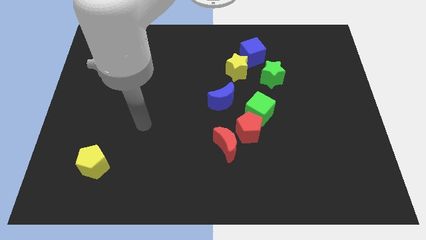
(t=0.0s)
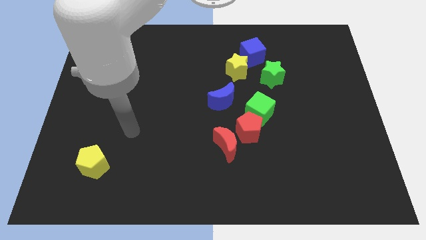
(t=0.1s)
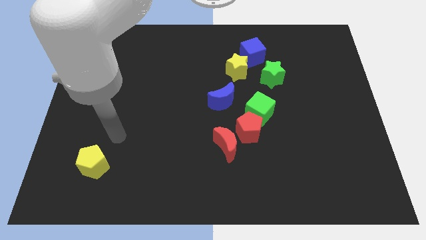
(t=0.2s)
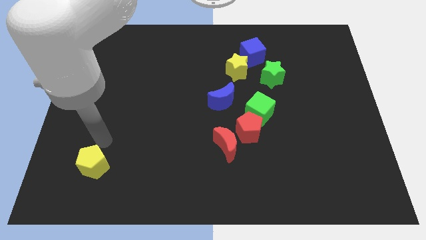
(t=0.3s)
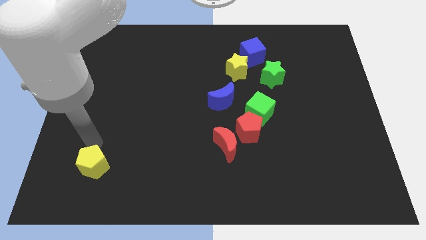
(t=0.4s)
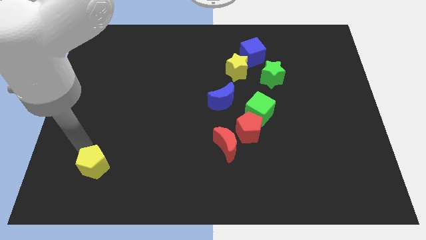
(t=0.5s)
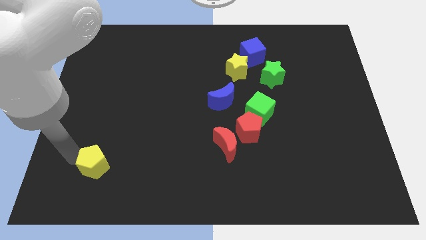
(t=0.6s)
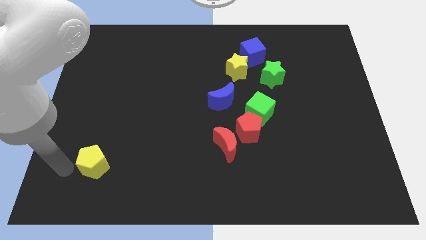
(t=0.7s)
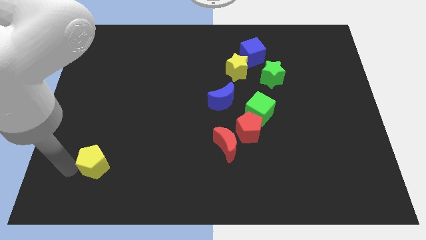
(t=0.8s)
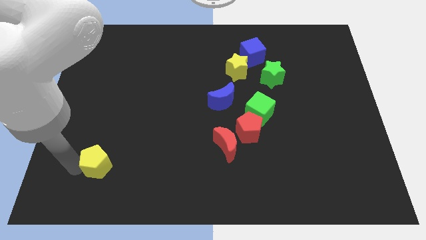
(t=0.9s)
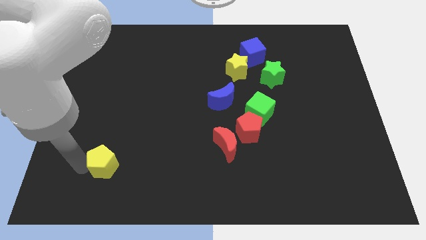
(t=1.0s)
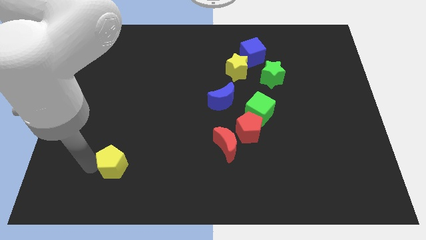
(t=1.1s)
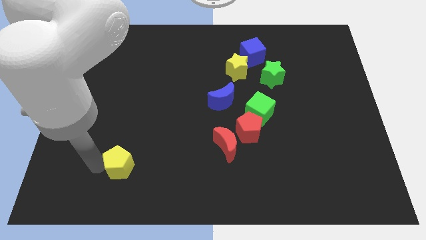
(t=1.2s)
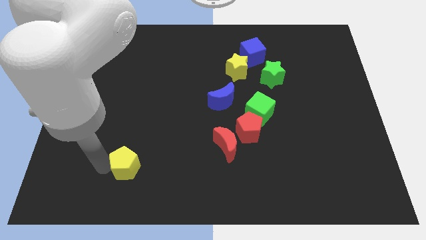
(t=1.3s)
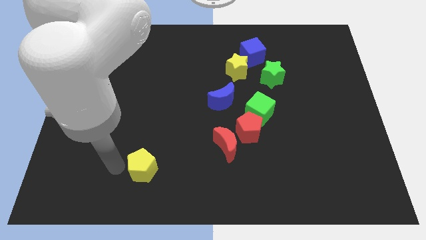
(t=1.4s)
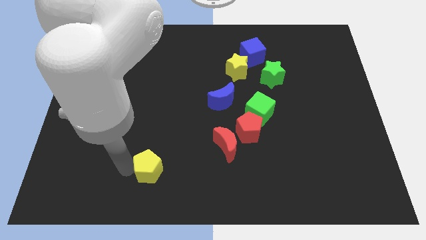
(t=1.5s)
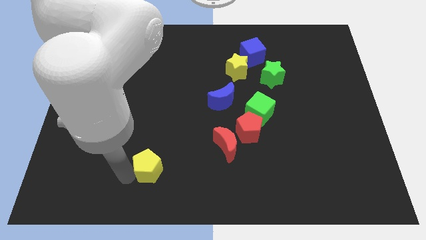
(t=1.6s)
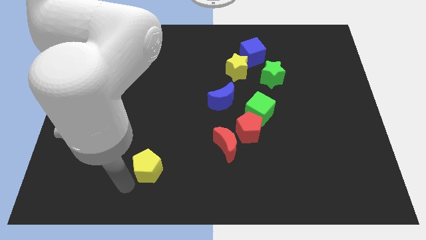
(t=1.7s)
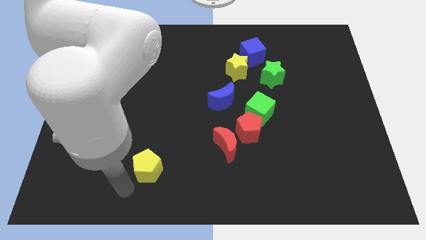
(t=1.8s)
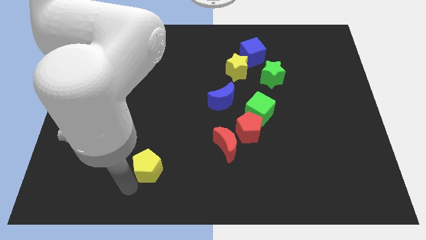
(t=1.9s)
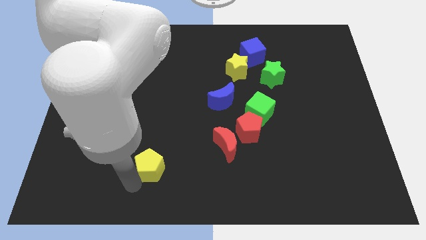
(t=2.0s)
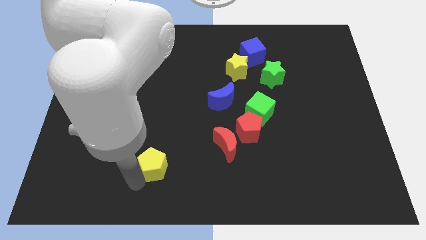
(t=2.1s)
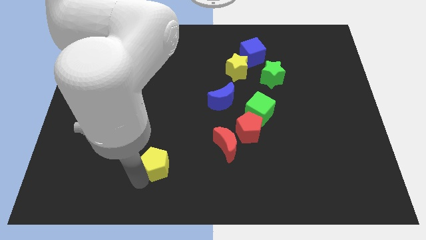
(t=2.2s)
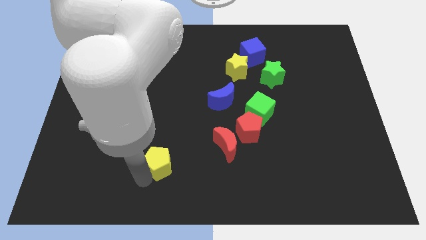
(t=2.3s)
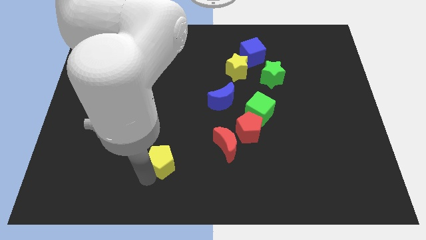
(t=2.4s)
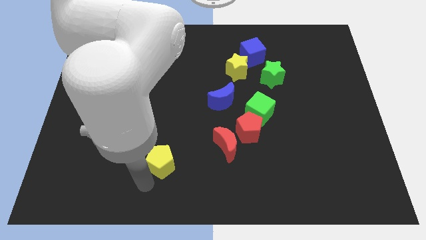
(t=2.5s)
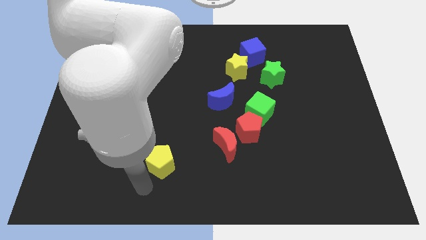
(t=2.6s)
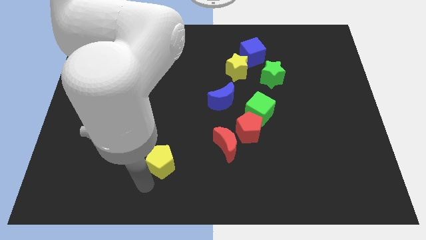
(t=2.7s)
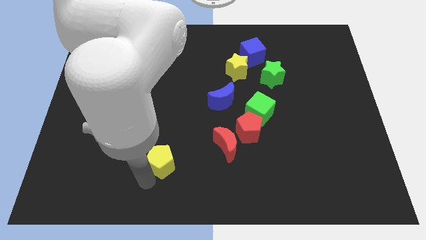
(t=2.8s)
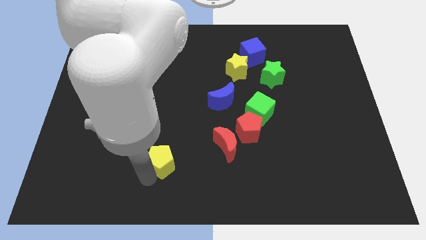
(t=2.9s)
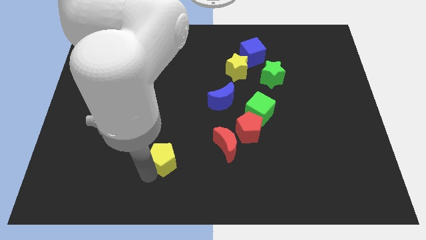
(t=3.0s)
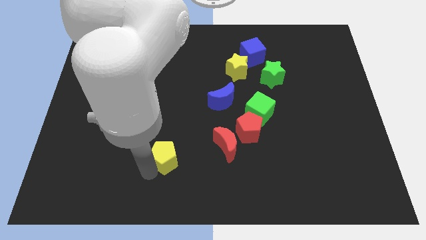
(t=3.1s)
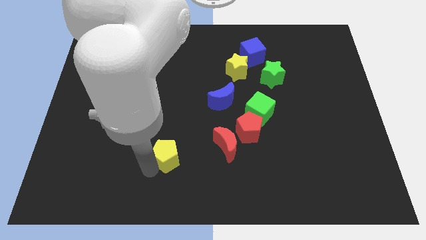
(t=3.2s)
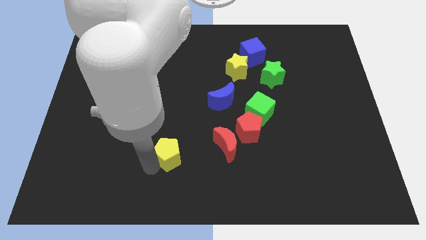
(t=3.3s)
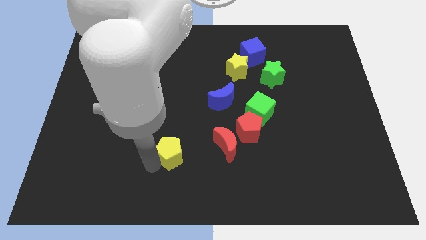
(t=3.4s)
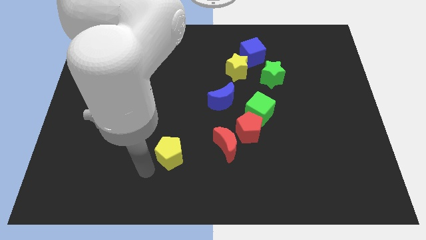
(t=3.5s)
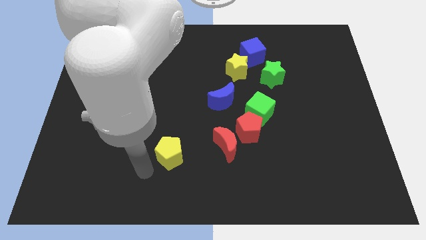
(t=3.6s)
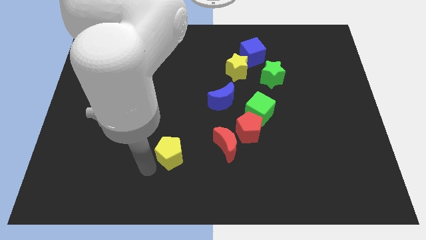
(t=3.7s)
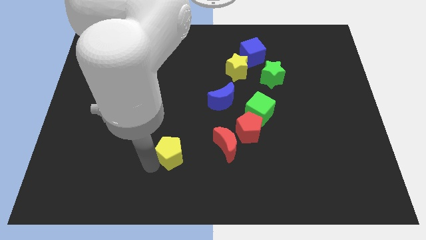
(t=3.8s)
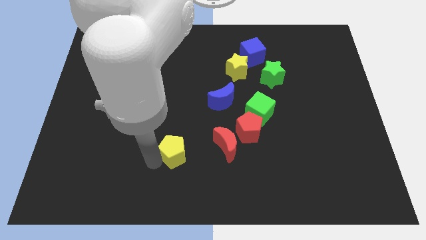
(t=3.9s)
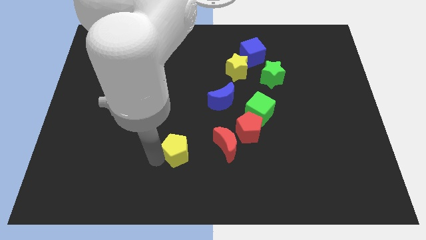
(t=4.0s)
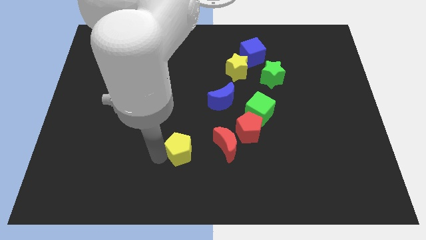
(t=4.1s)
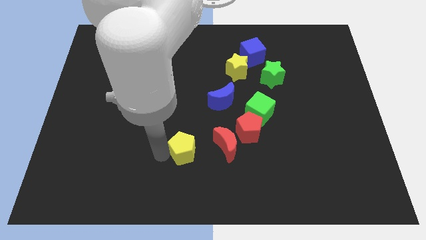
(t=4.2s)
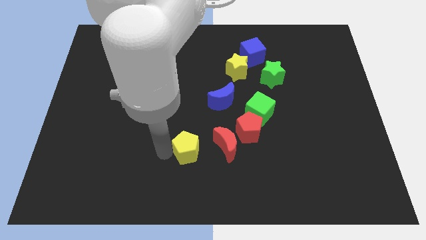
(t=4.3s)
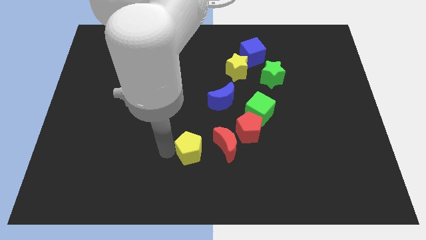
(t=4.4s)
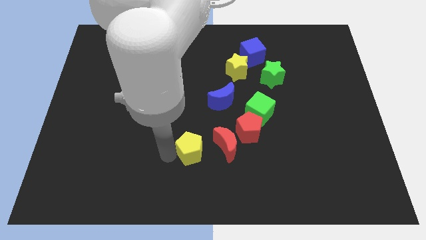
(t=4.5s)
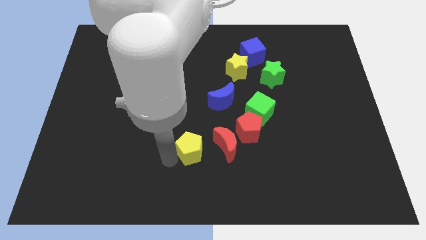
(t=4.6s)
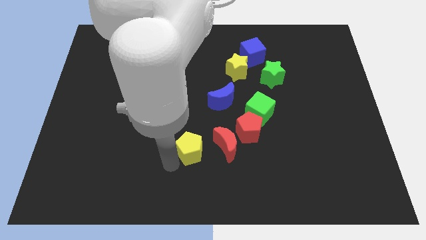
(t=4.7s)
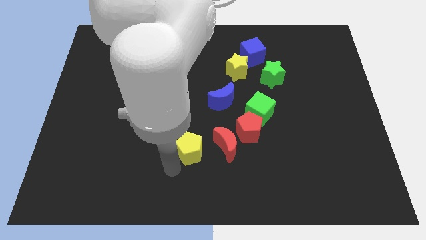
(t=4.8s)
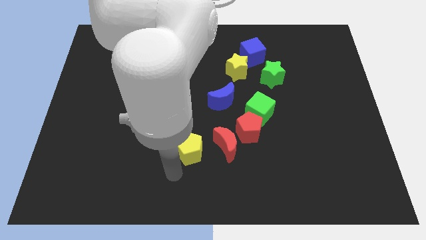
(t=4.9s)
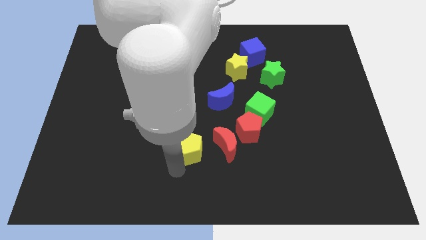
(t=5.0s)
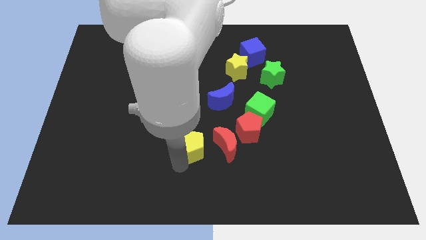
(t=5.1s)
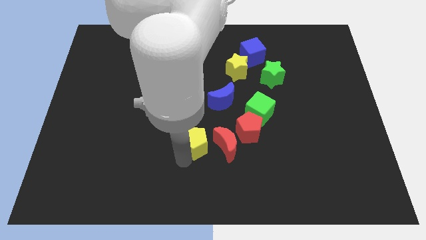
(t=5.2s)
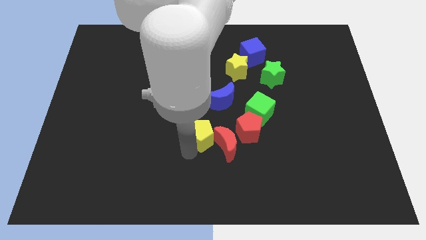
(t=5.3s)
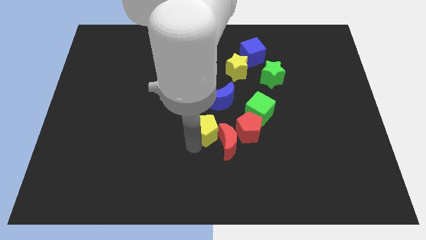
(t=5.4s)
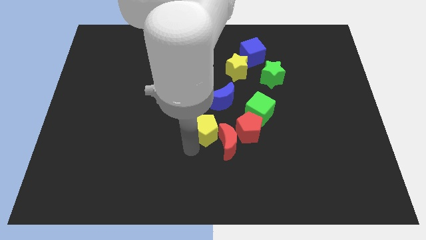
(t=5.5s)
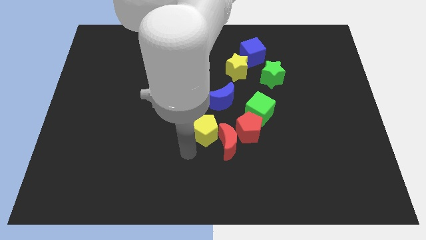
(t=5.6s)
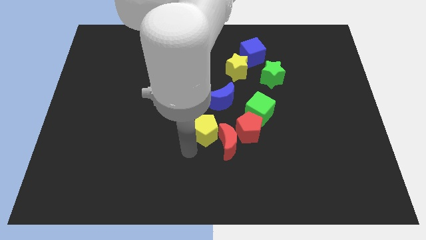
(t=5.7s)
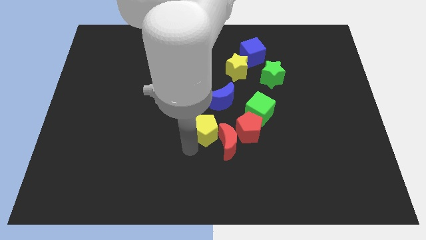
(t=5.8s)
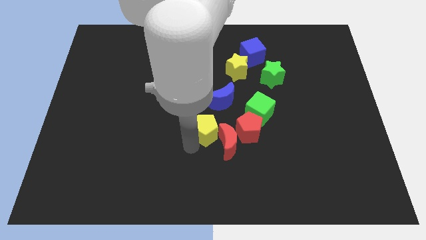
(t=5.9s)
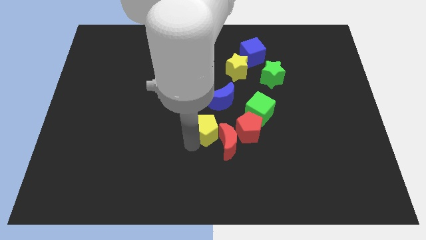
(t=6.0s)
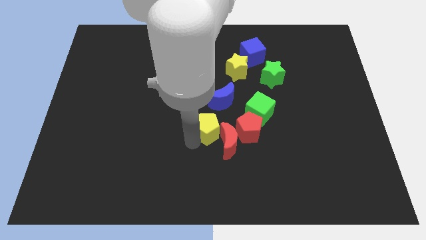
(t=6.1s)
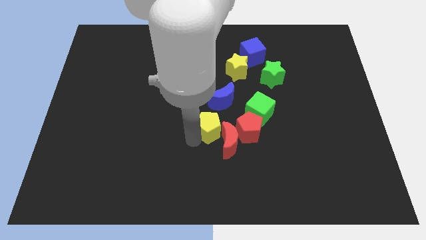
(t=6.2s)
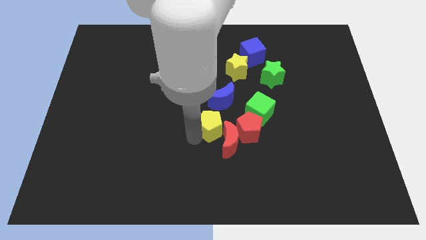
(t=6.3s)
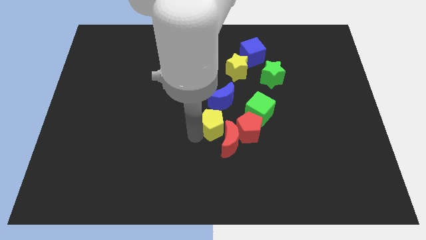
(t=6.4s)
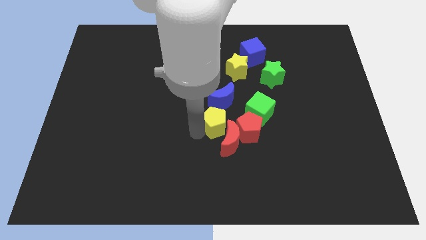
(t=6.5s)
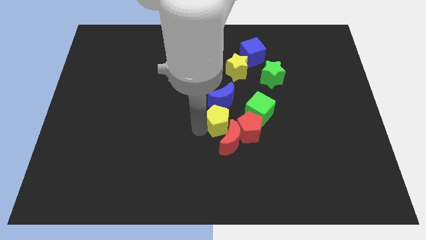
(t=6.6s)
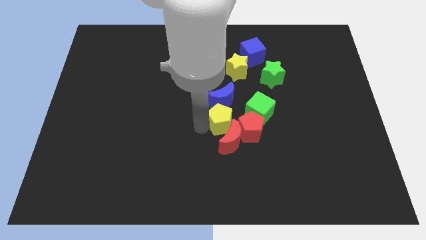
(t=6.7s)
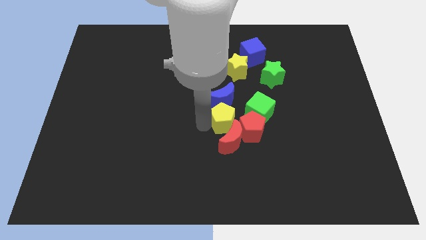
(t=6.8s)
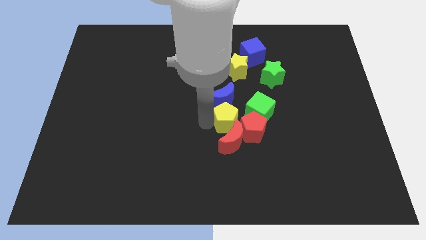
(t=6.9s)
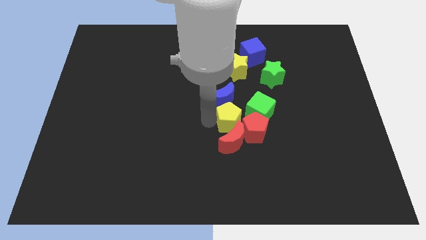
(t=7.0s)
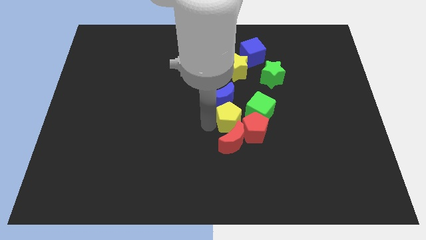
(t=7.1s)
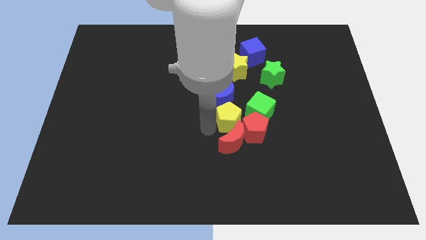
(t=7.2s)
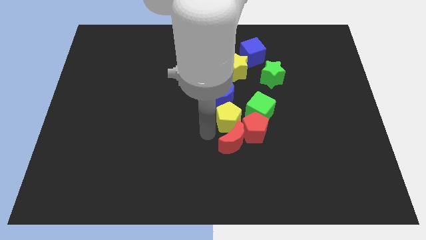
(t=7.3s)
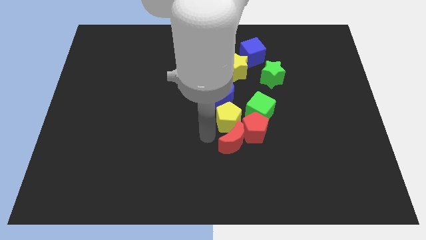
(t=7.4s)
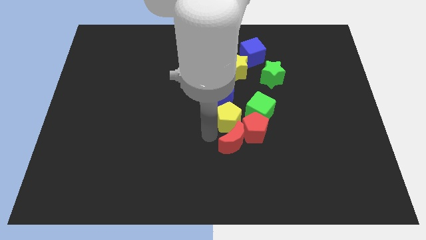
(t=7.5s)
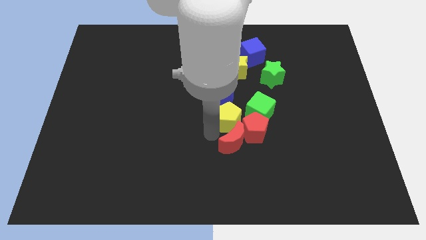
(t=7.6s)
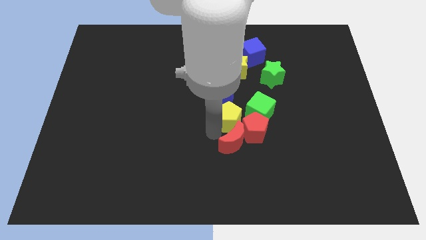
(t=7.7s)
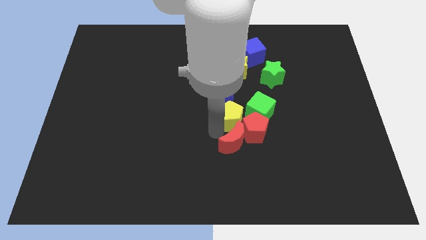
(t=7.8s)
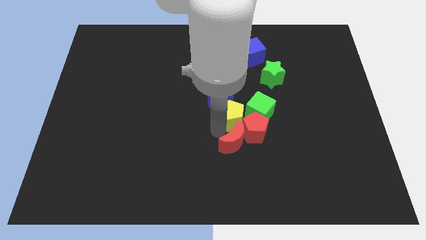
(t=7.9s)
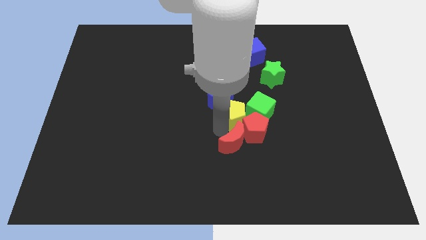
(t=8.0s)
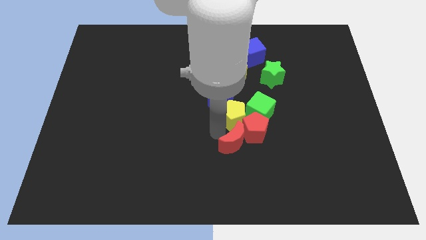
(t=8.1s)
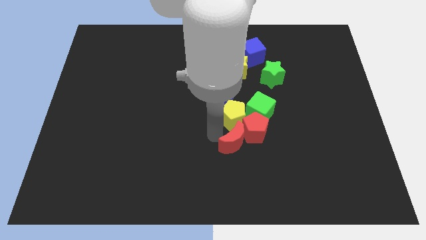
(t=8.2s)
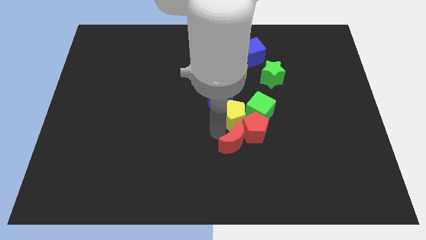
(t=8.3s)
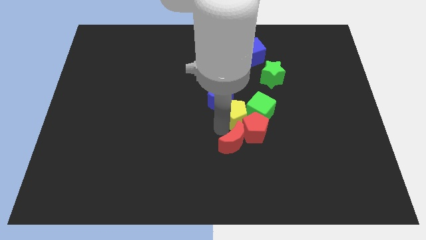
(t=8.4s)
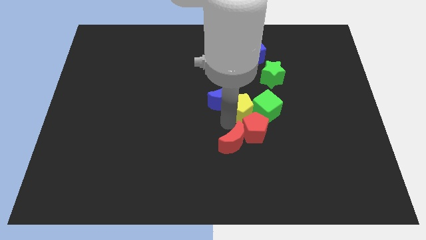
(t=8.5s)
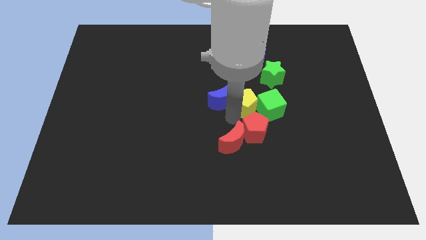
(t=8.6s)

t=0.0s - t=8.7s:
put the yellow pentagon diagonally down and to the left of the green star
